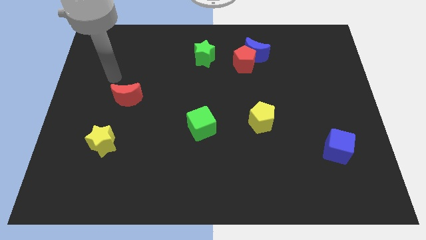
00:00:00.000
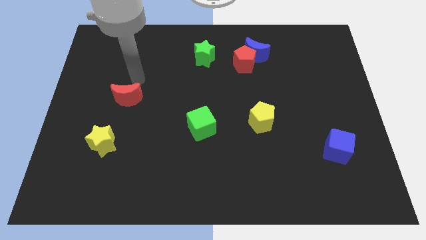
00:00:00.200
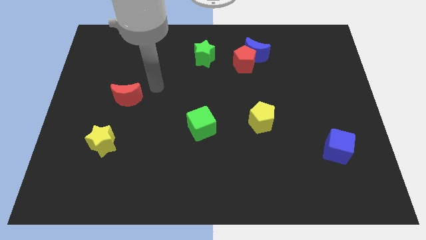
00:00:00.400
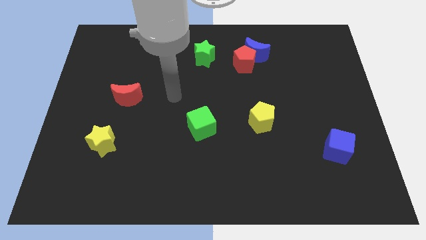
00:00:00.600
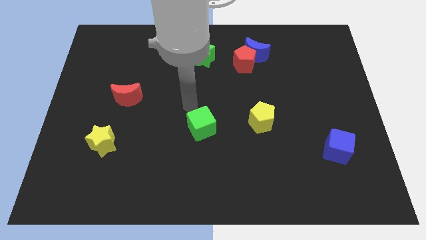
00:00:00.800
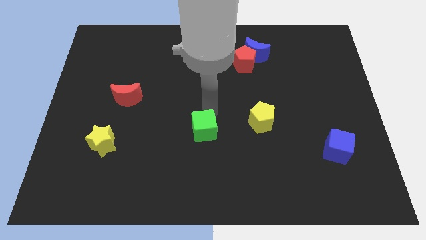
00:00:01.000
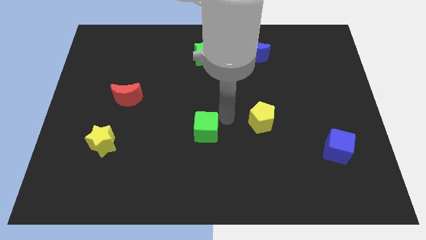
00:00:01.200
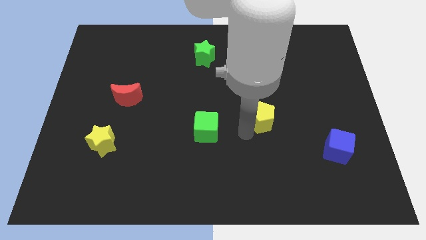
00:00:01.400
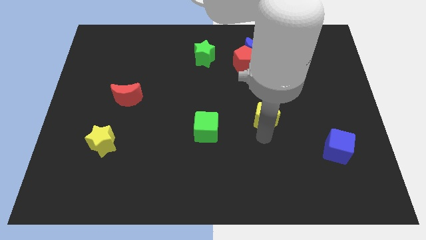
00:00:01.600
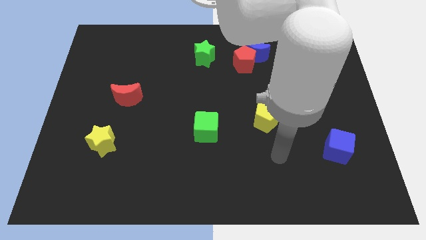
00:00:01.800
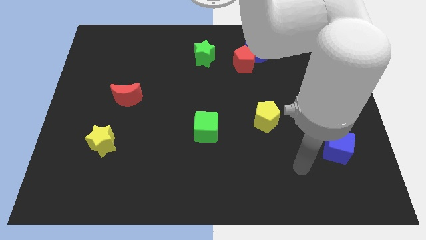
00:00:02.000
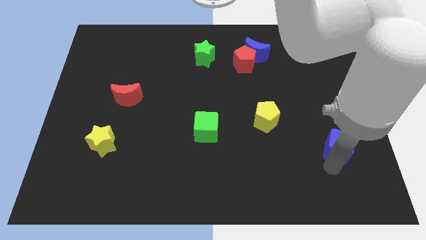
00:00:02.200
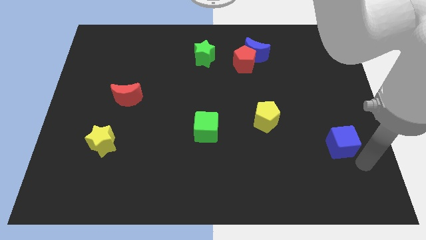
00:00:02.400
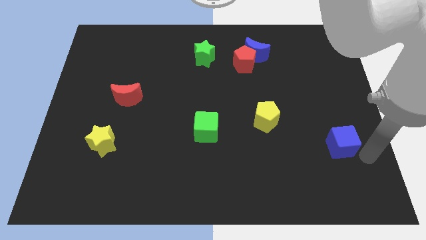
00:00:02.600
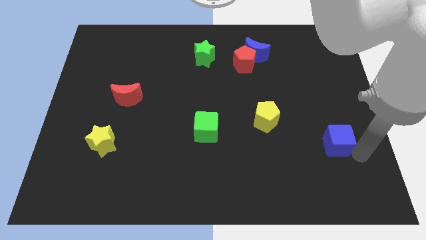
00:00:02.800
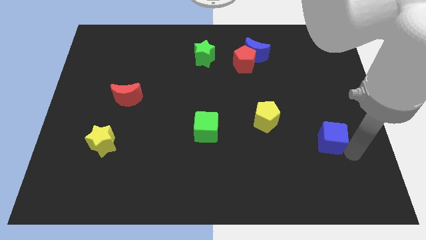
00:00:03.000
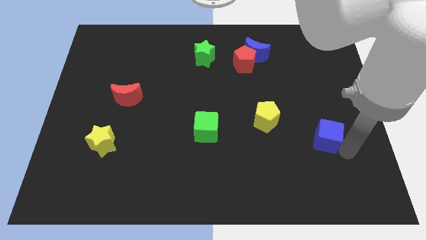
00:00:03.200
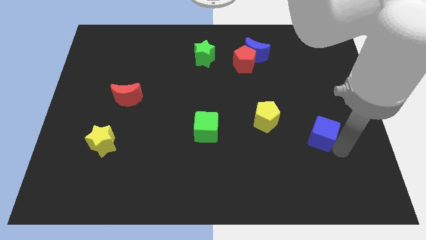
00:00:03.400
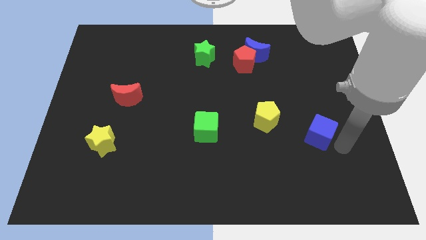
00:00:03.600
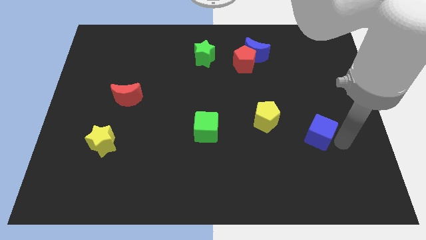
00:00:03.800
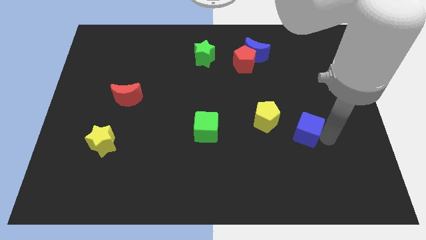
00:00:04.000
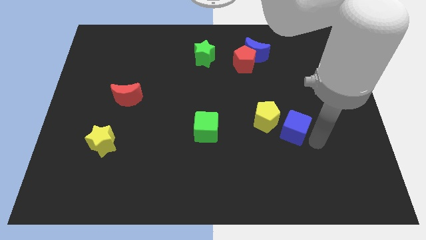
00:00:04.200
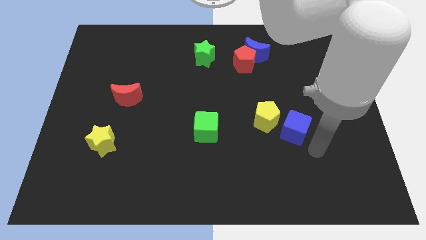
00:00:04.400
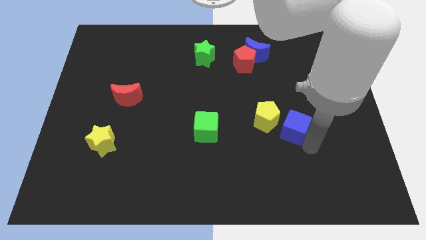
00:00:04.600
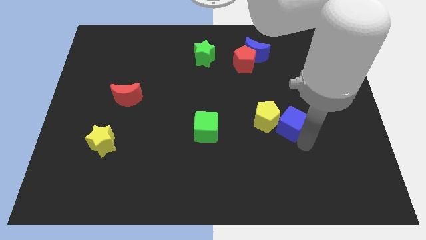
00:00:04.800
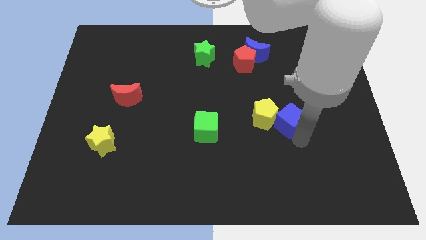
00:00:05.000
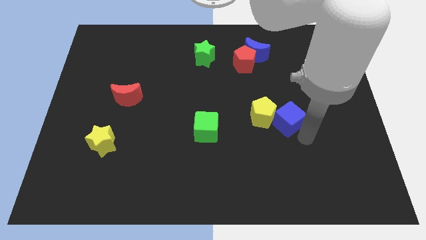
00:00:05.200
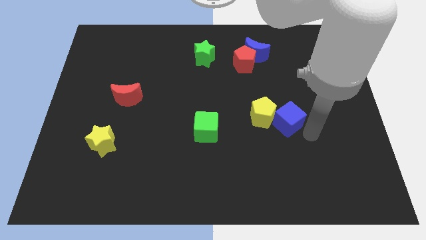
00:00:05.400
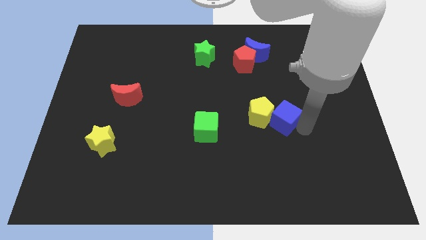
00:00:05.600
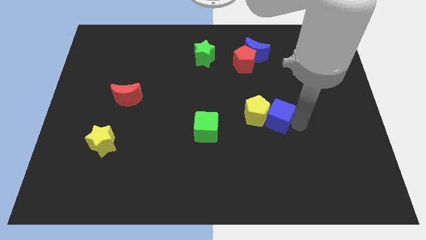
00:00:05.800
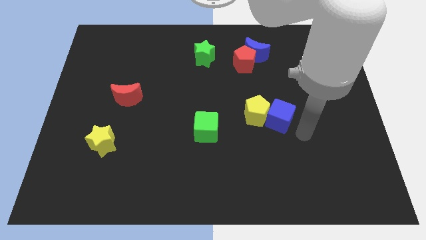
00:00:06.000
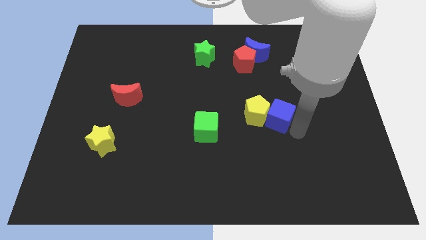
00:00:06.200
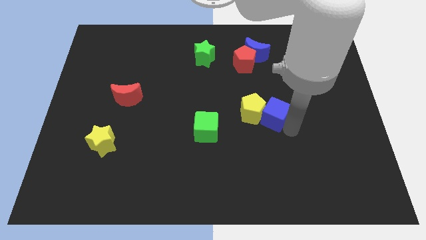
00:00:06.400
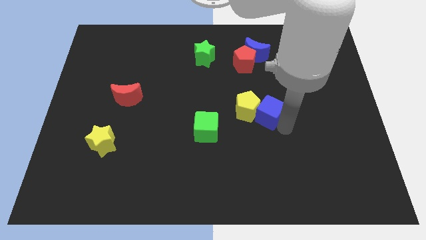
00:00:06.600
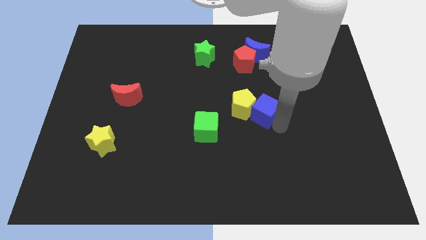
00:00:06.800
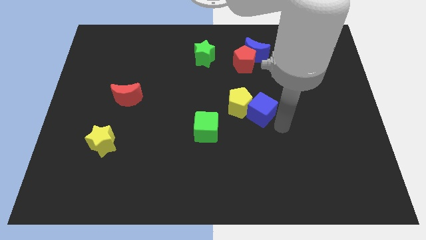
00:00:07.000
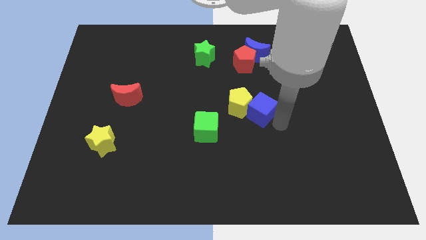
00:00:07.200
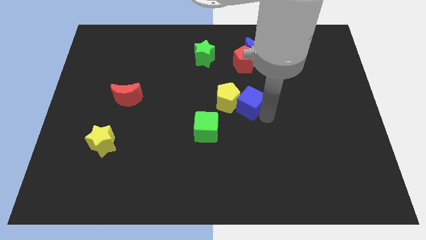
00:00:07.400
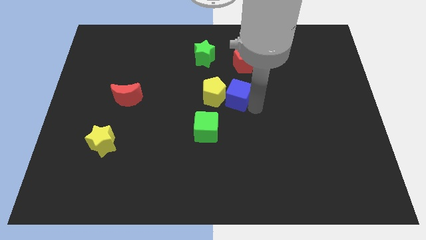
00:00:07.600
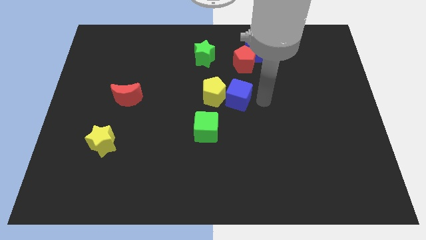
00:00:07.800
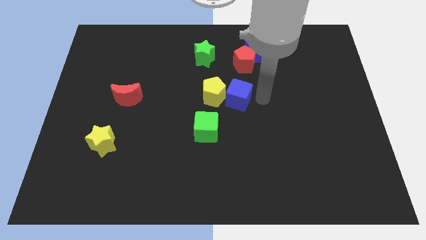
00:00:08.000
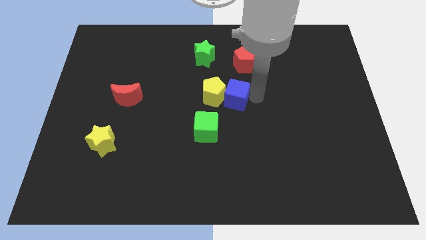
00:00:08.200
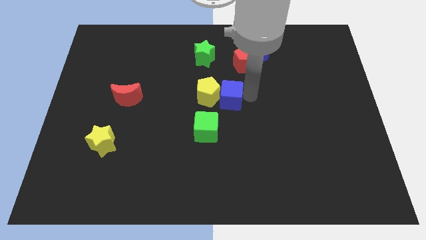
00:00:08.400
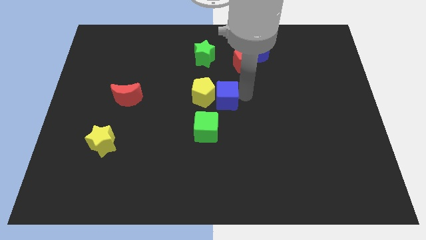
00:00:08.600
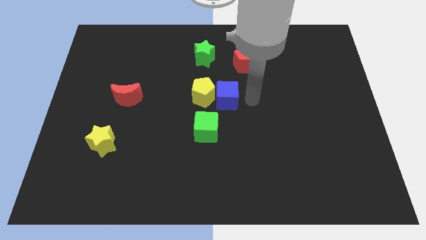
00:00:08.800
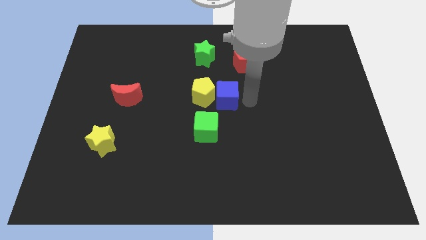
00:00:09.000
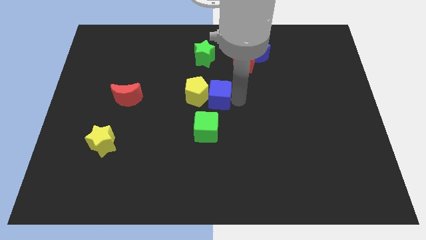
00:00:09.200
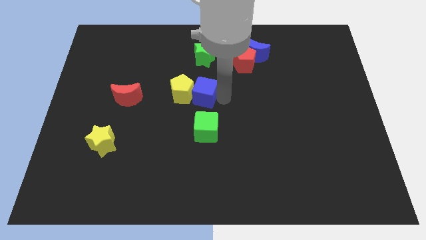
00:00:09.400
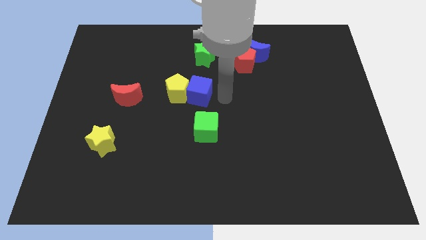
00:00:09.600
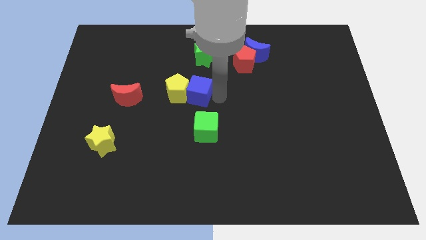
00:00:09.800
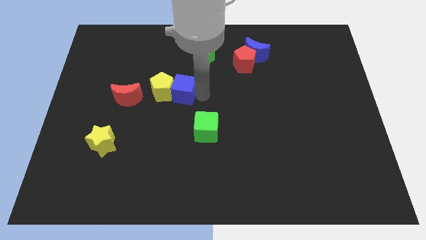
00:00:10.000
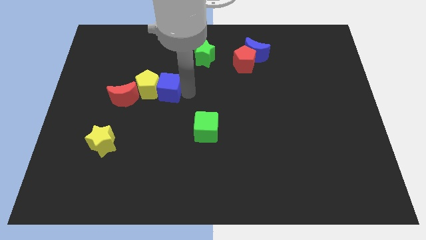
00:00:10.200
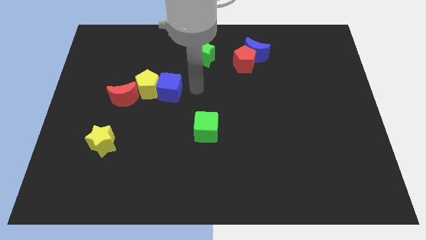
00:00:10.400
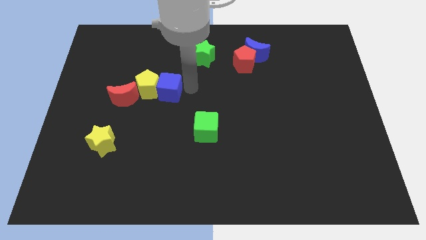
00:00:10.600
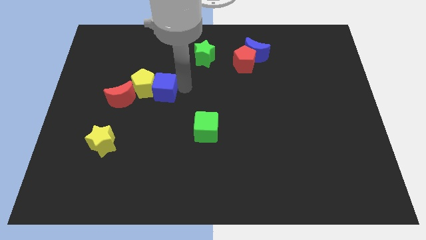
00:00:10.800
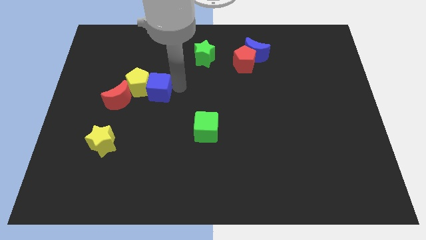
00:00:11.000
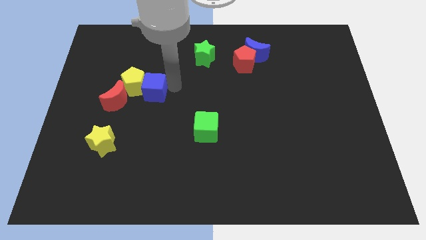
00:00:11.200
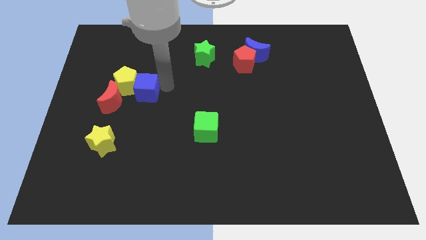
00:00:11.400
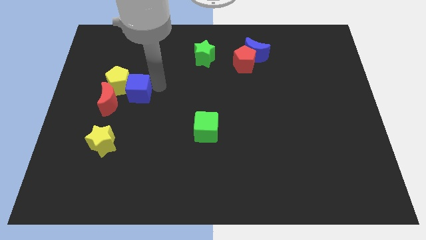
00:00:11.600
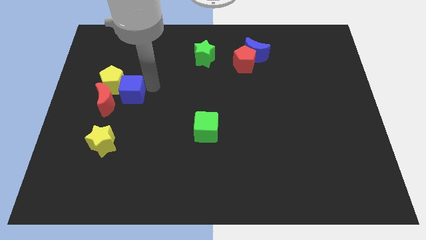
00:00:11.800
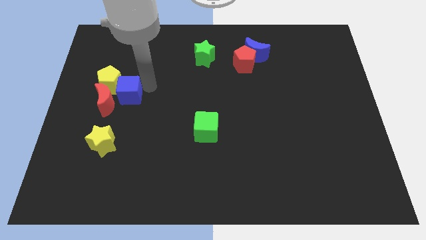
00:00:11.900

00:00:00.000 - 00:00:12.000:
move the blue cube towards the red moon

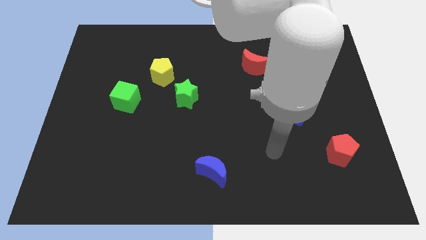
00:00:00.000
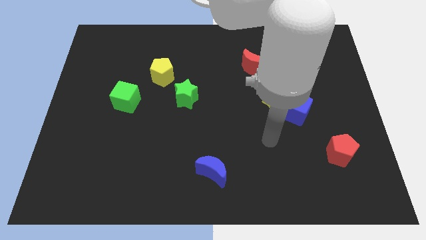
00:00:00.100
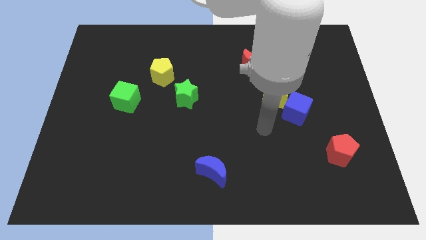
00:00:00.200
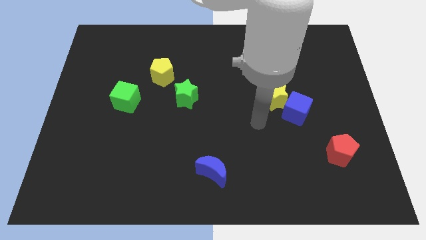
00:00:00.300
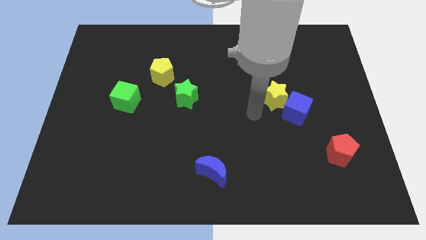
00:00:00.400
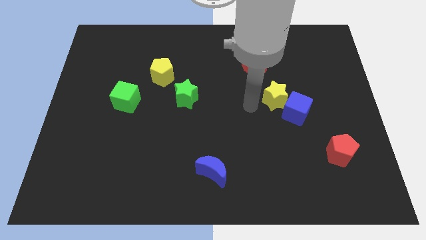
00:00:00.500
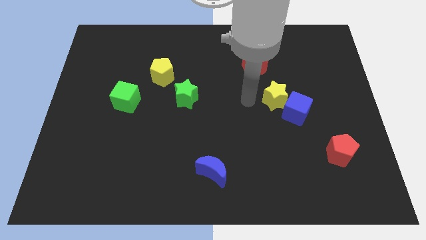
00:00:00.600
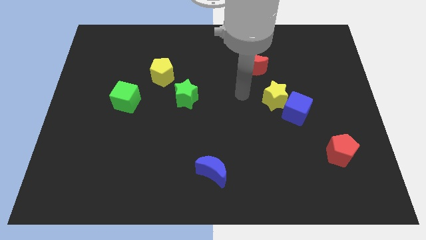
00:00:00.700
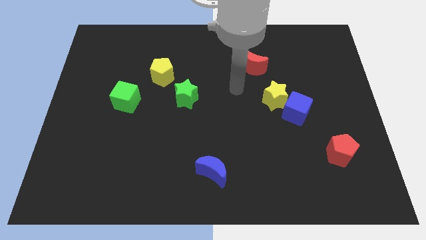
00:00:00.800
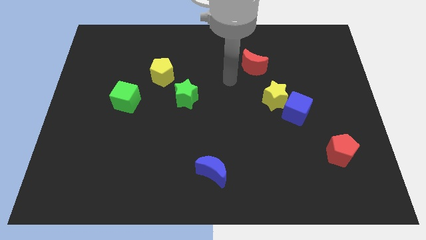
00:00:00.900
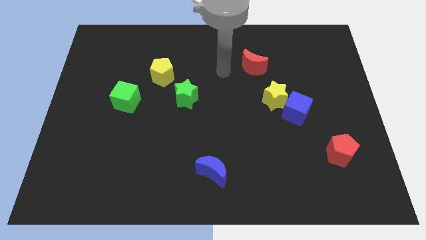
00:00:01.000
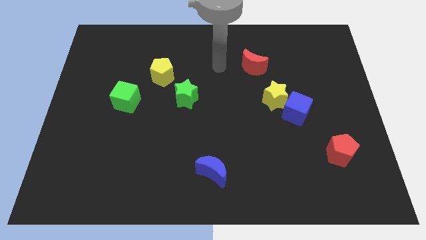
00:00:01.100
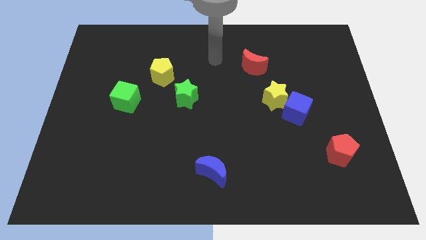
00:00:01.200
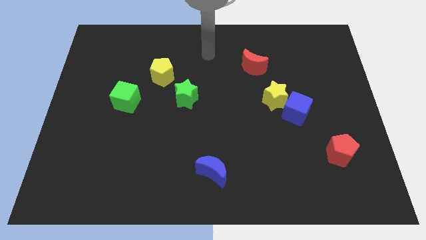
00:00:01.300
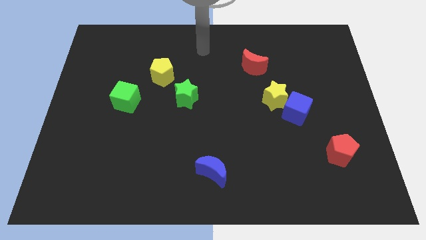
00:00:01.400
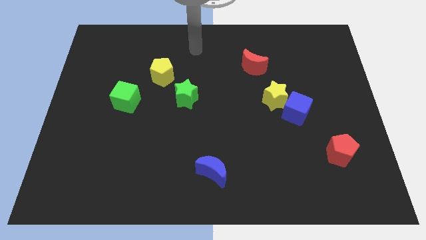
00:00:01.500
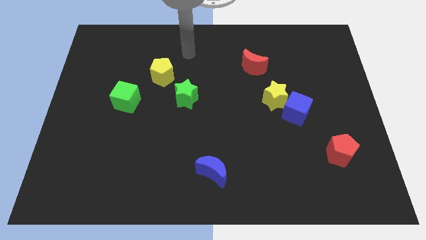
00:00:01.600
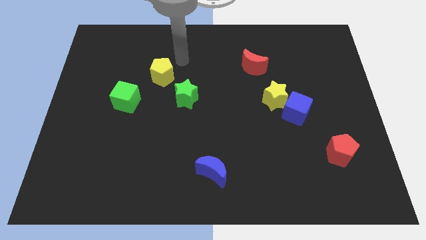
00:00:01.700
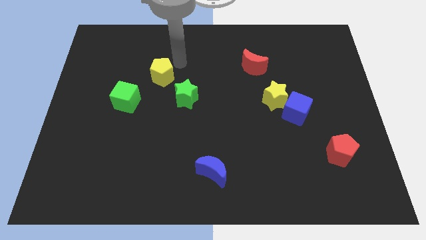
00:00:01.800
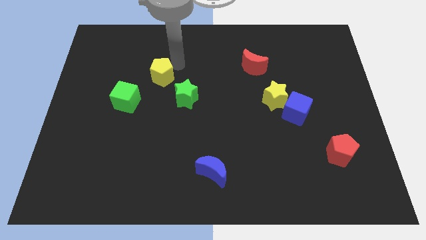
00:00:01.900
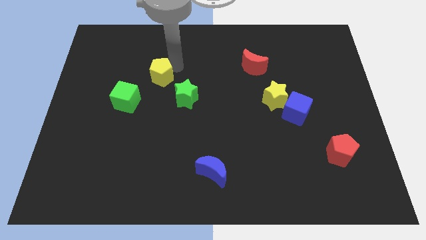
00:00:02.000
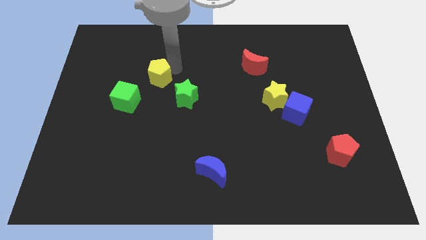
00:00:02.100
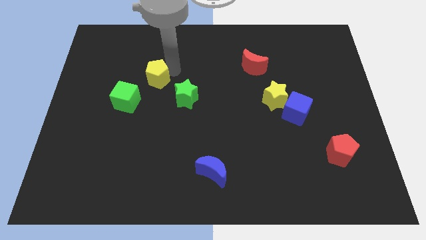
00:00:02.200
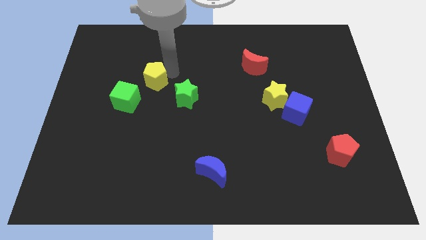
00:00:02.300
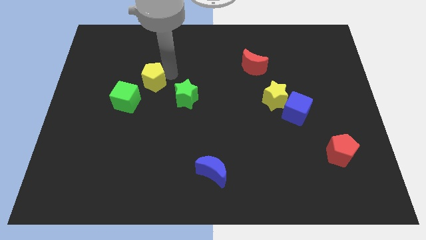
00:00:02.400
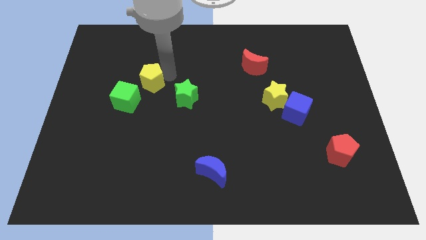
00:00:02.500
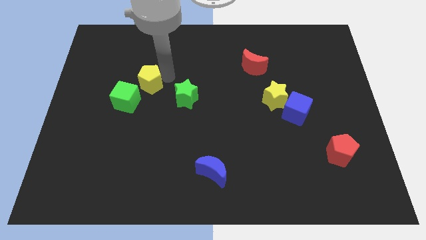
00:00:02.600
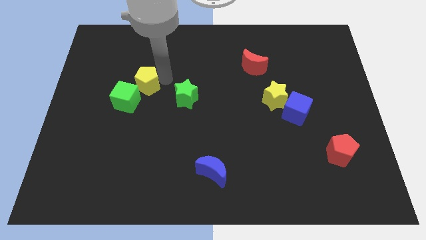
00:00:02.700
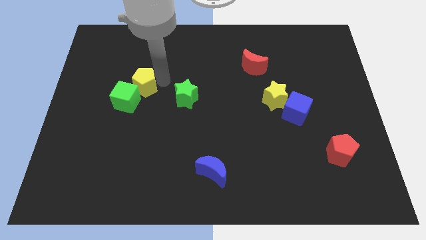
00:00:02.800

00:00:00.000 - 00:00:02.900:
slide the yellow pentagon close to the green cube
